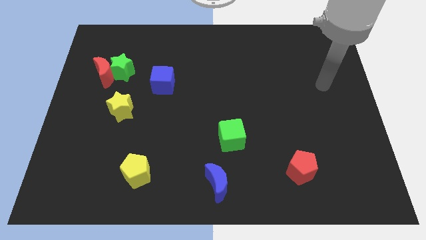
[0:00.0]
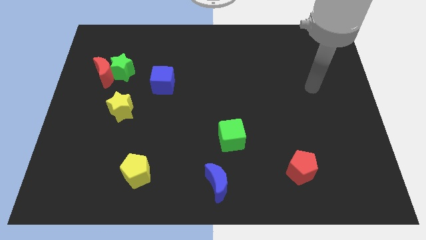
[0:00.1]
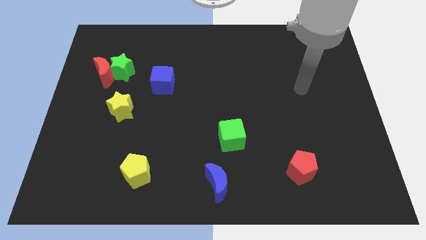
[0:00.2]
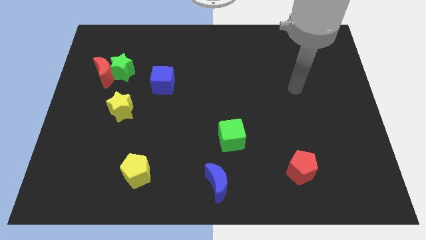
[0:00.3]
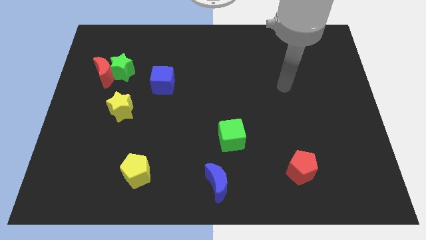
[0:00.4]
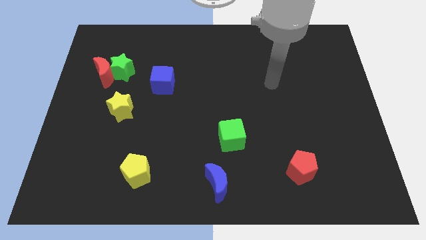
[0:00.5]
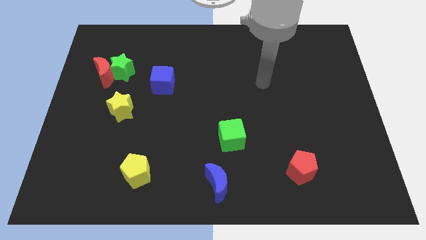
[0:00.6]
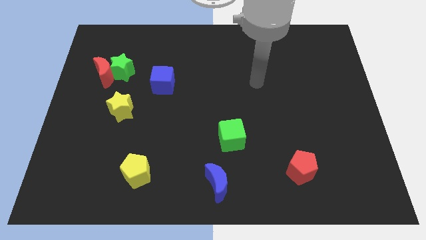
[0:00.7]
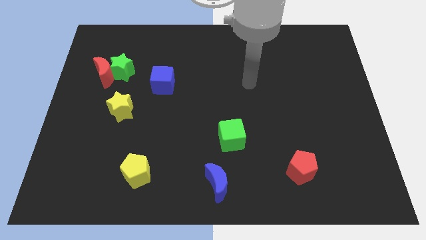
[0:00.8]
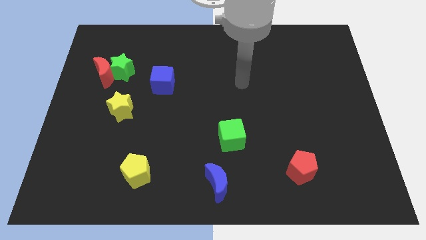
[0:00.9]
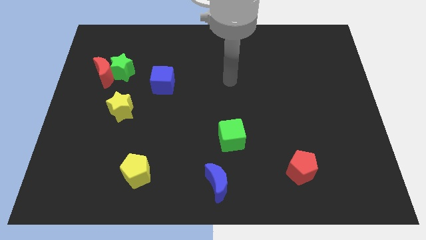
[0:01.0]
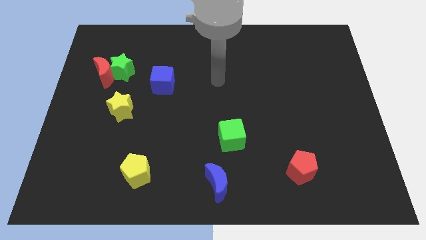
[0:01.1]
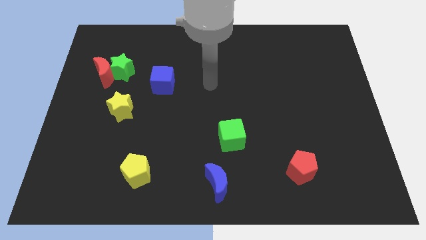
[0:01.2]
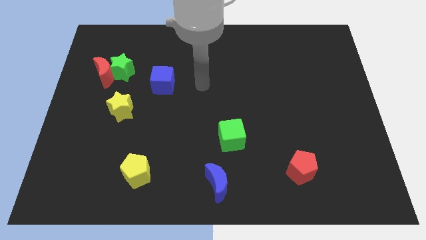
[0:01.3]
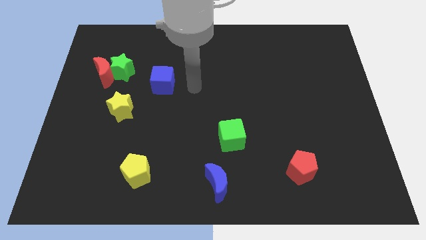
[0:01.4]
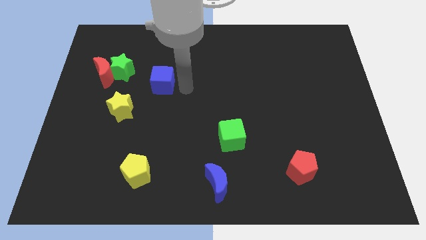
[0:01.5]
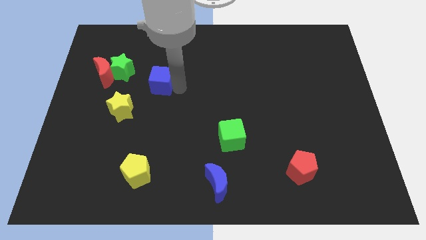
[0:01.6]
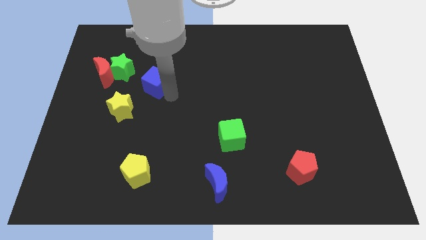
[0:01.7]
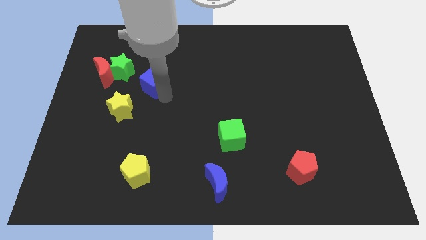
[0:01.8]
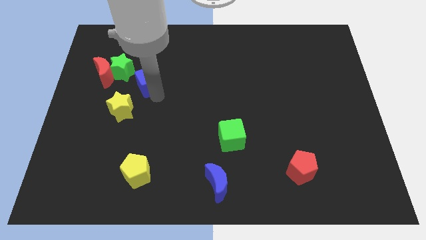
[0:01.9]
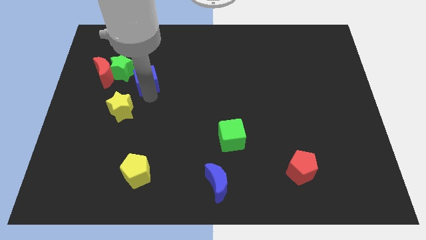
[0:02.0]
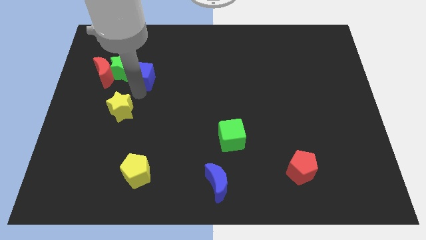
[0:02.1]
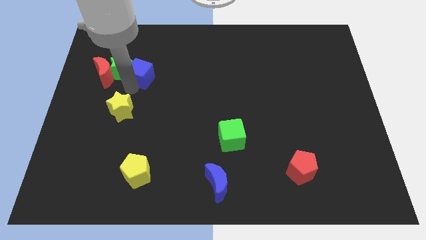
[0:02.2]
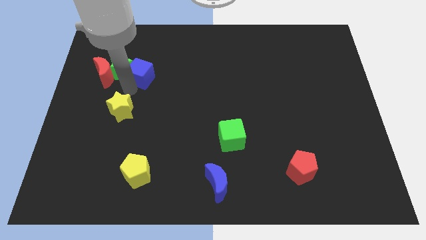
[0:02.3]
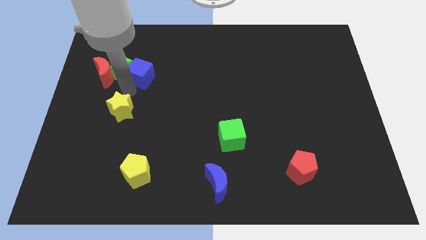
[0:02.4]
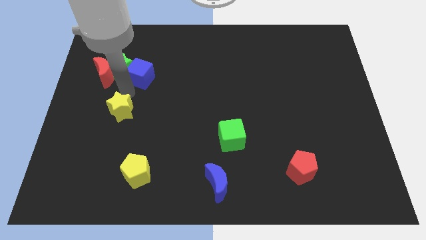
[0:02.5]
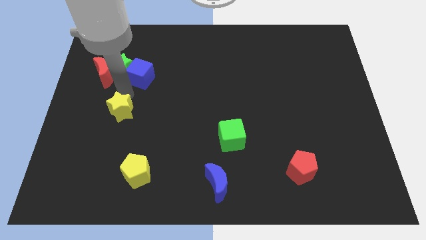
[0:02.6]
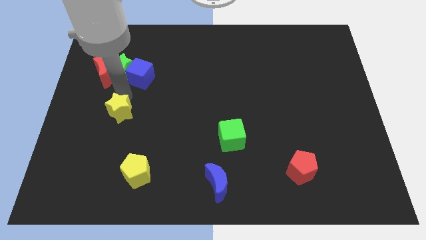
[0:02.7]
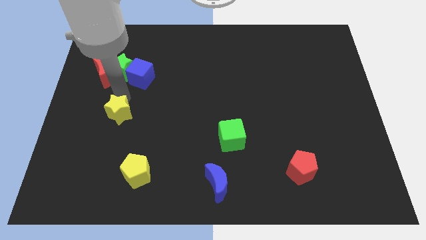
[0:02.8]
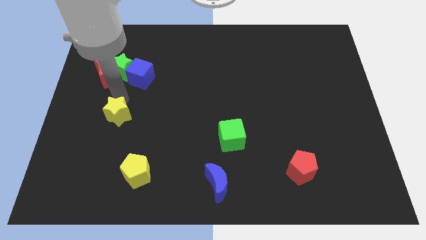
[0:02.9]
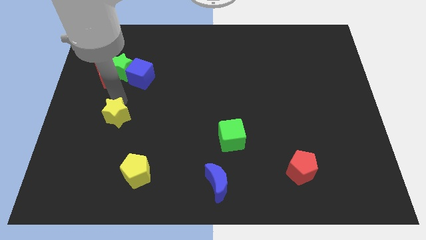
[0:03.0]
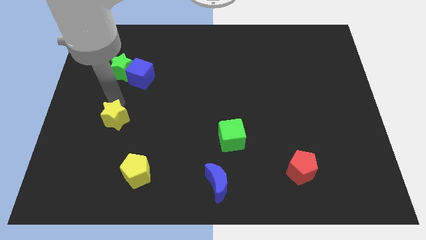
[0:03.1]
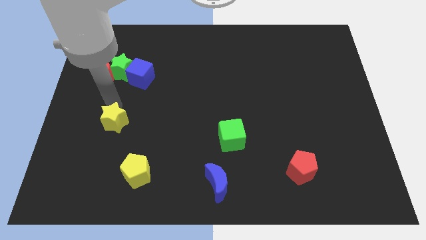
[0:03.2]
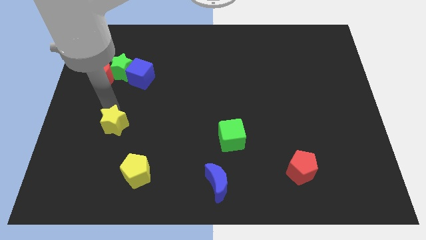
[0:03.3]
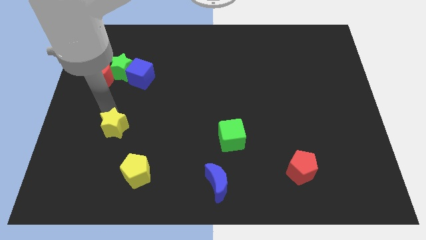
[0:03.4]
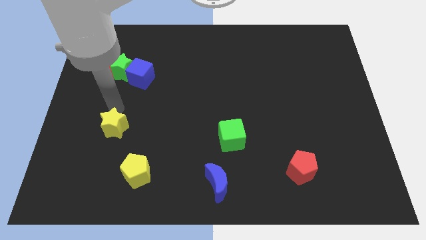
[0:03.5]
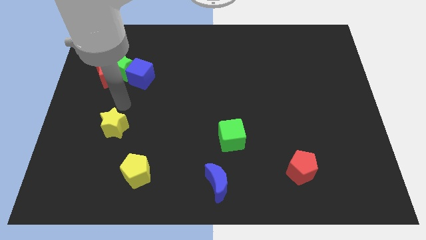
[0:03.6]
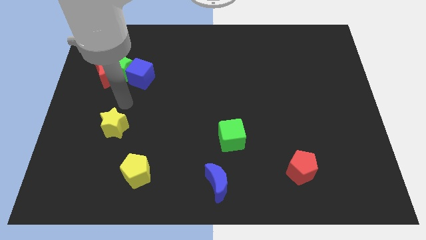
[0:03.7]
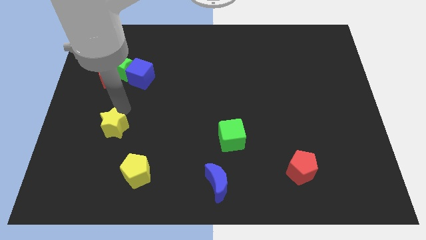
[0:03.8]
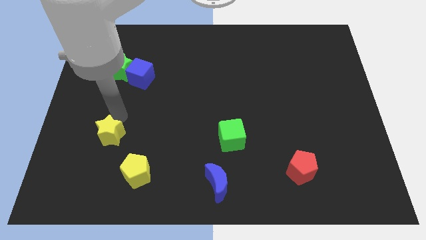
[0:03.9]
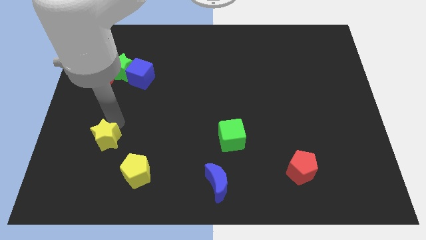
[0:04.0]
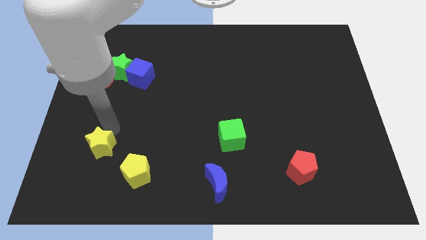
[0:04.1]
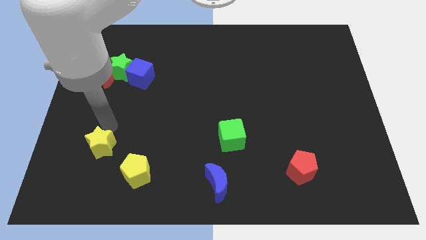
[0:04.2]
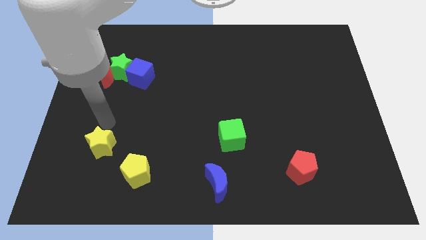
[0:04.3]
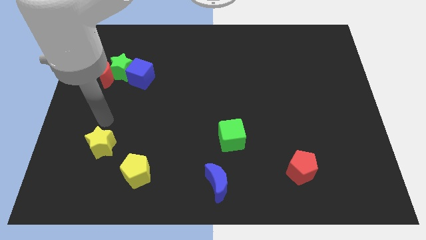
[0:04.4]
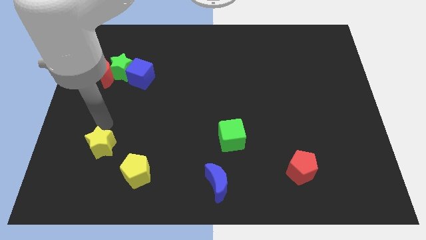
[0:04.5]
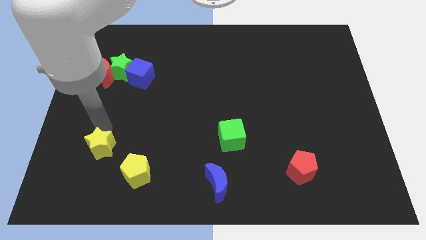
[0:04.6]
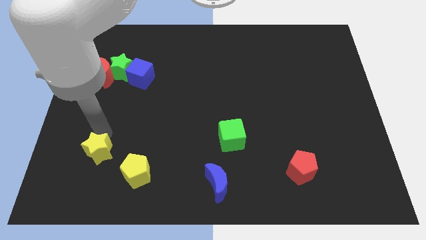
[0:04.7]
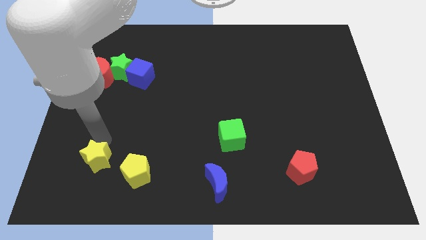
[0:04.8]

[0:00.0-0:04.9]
put the yellow star left of the yellow pentagon

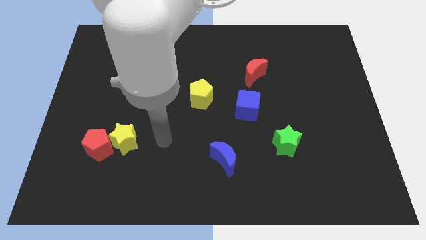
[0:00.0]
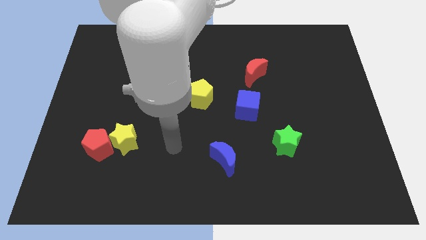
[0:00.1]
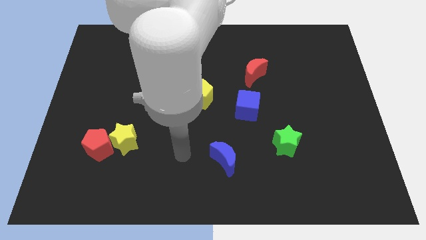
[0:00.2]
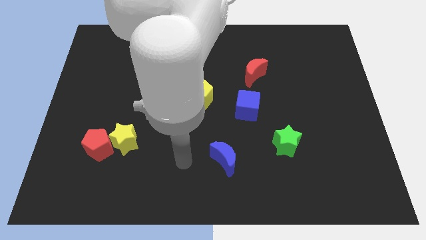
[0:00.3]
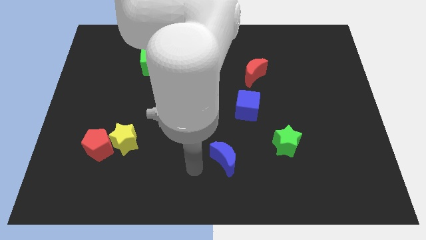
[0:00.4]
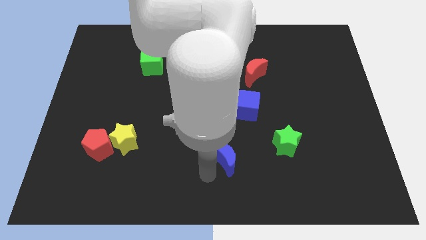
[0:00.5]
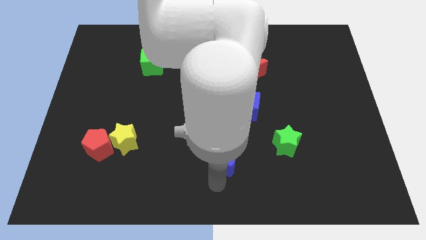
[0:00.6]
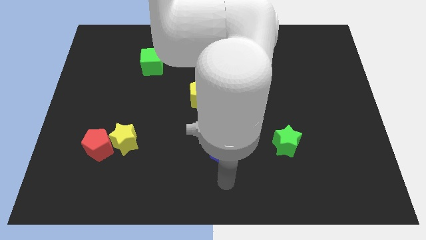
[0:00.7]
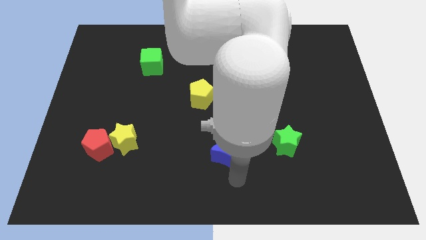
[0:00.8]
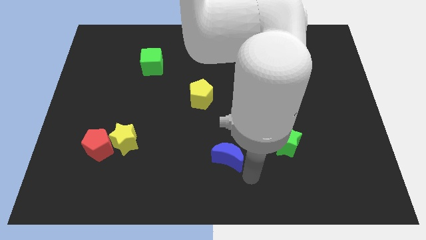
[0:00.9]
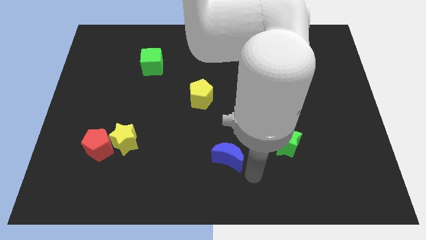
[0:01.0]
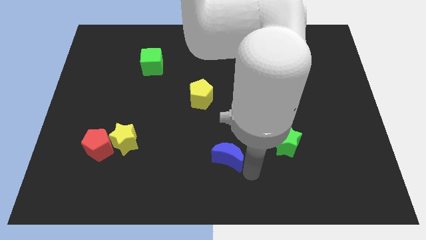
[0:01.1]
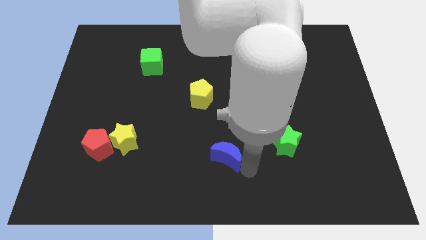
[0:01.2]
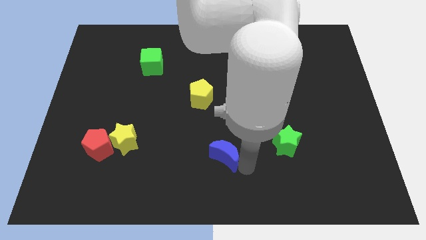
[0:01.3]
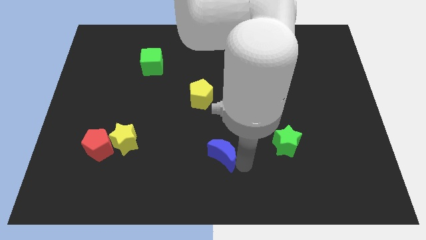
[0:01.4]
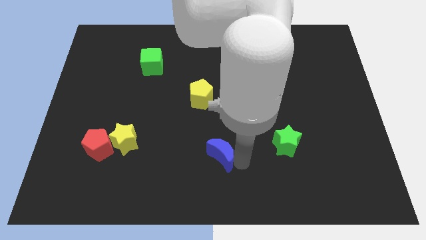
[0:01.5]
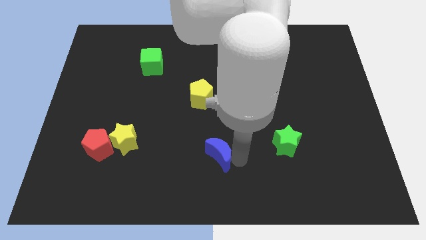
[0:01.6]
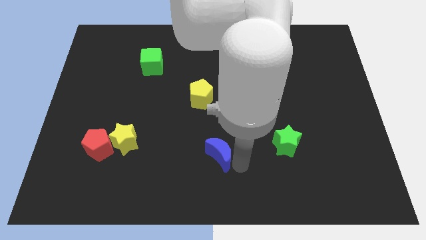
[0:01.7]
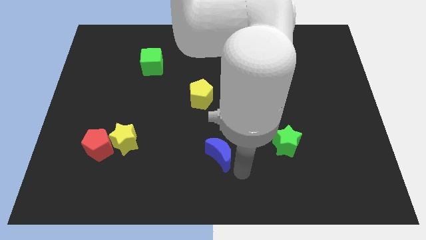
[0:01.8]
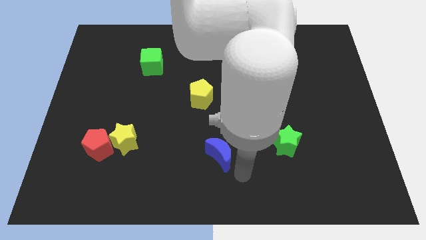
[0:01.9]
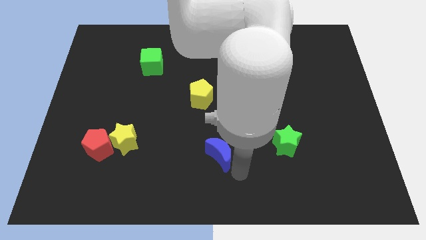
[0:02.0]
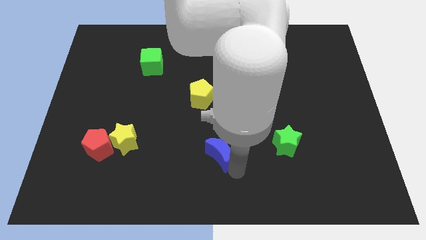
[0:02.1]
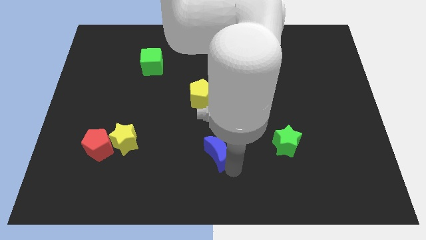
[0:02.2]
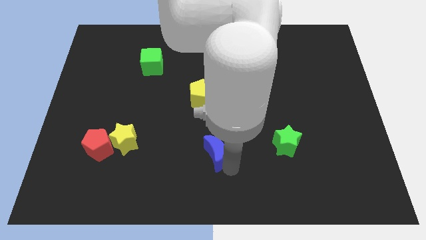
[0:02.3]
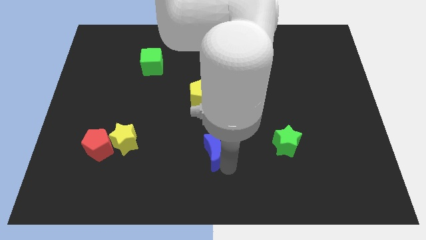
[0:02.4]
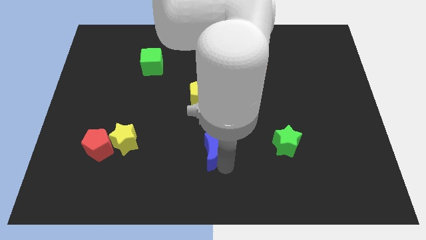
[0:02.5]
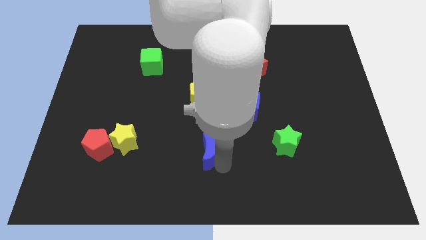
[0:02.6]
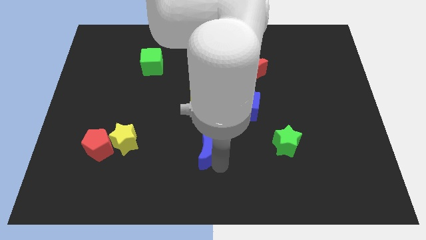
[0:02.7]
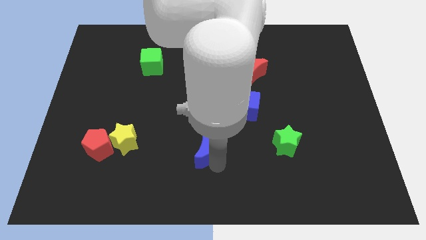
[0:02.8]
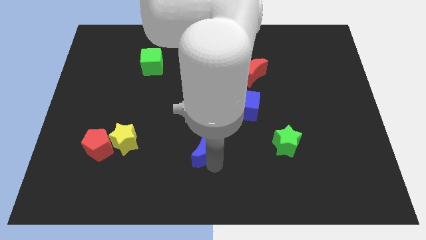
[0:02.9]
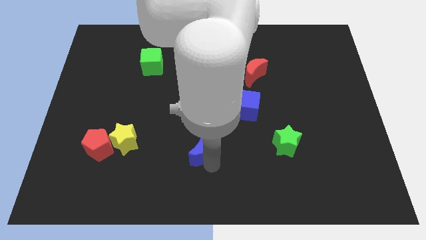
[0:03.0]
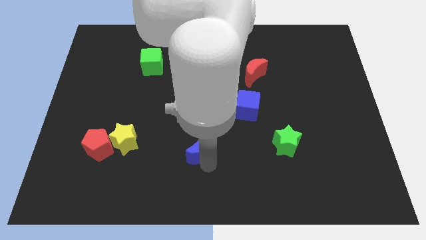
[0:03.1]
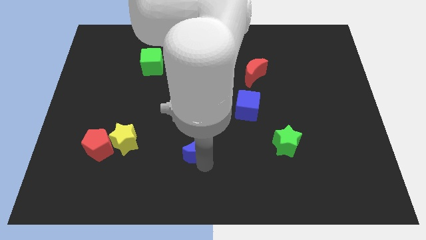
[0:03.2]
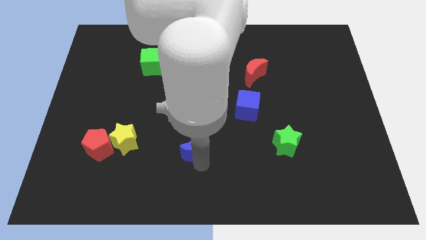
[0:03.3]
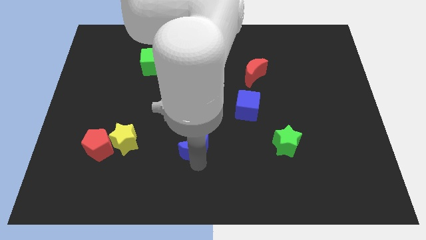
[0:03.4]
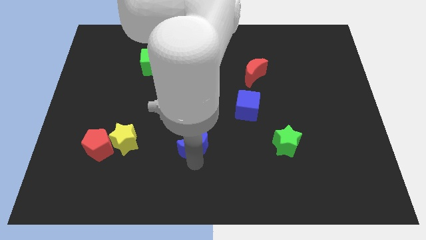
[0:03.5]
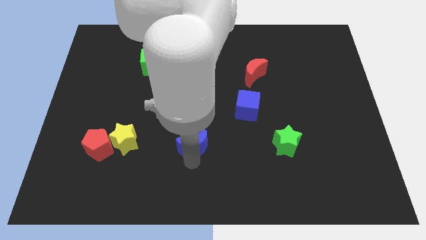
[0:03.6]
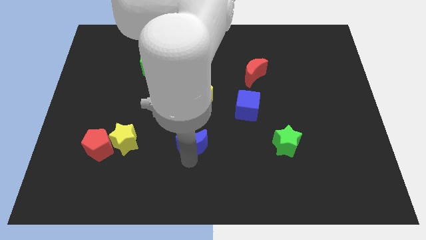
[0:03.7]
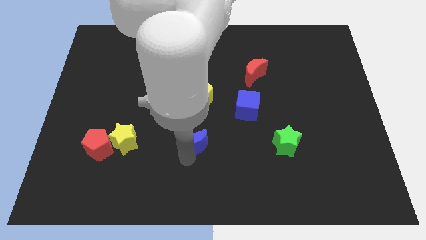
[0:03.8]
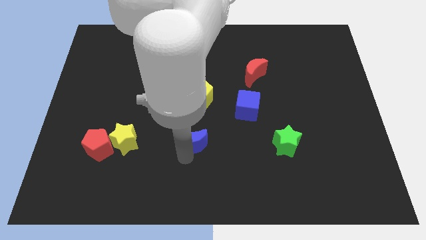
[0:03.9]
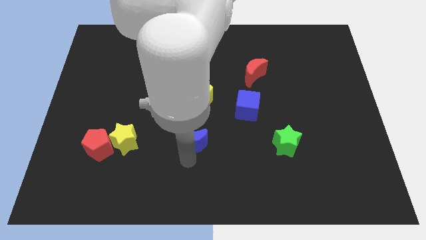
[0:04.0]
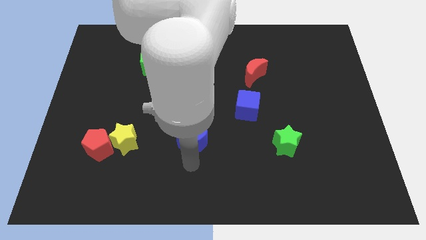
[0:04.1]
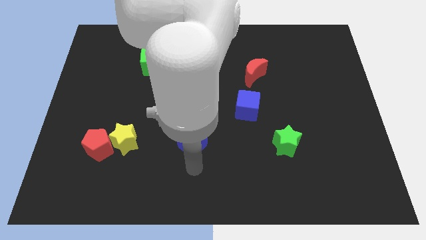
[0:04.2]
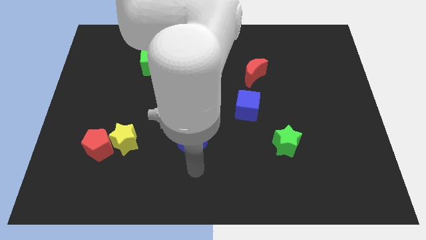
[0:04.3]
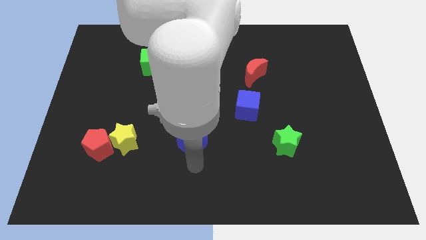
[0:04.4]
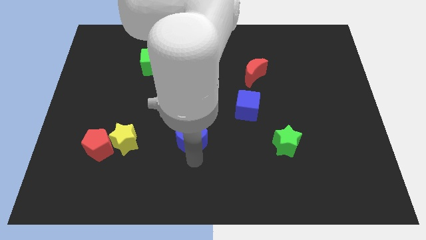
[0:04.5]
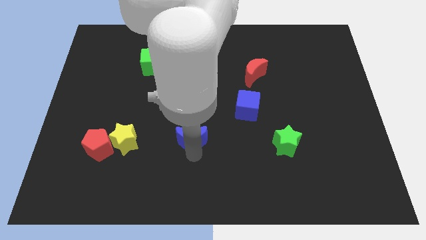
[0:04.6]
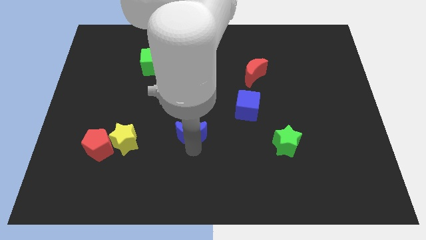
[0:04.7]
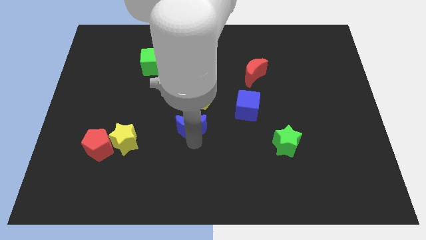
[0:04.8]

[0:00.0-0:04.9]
push the blue moon to the bottom left side of the yellow pentagon
